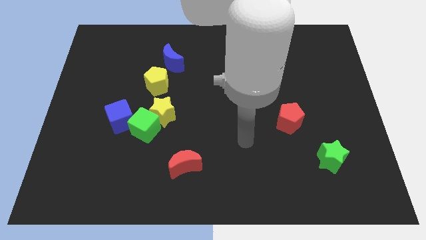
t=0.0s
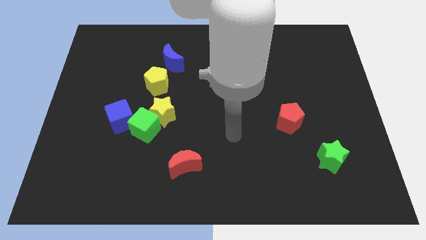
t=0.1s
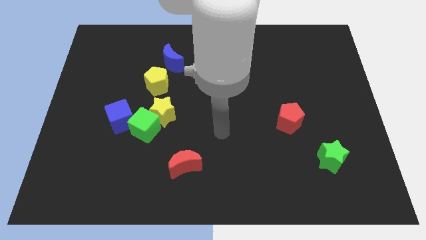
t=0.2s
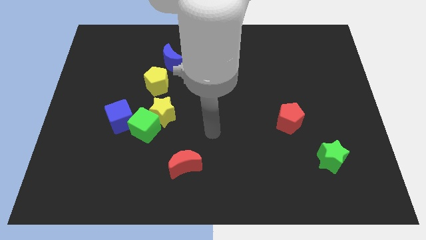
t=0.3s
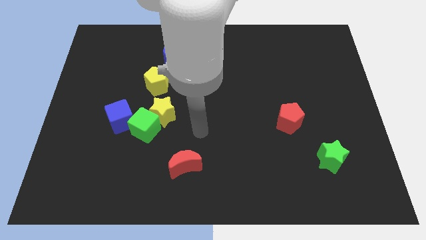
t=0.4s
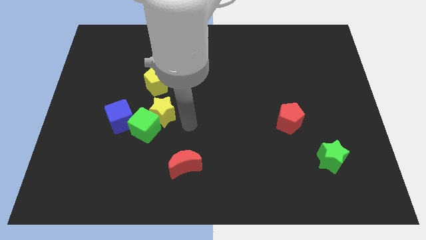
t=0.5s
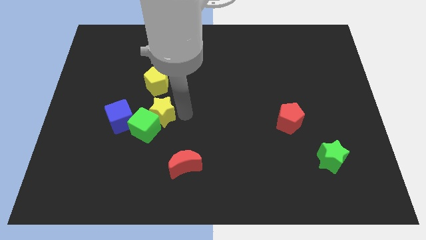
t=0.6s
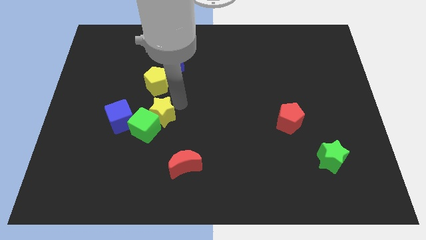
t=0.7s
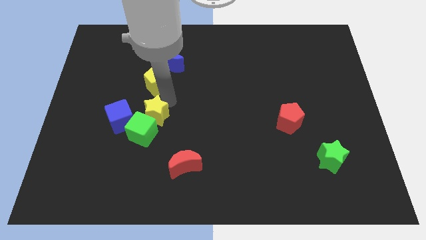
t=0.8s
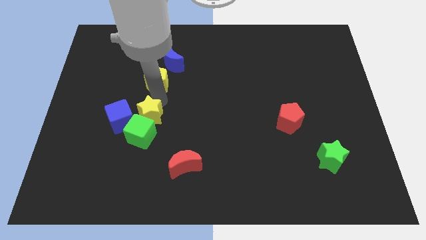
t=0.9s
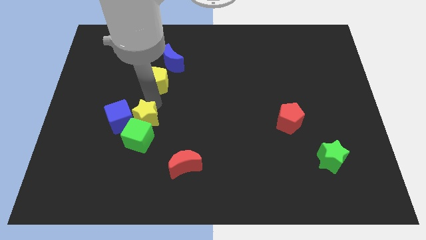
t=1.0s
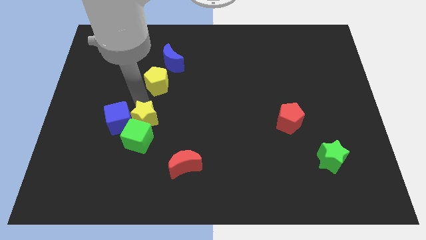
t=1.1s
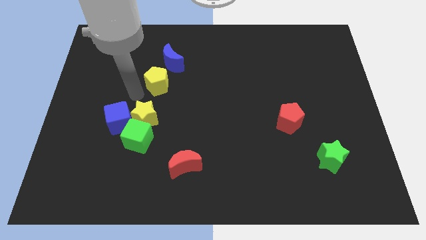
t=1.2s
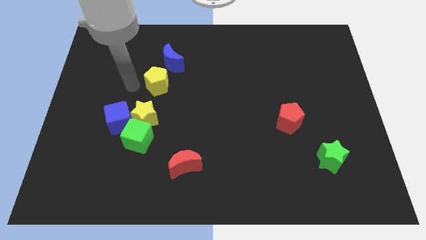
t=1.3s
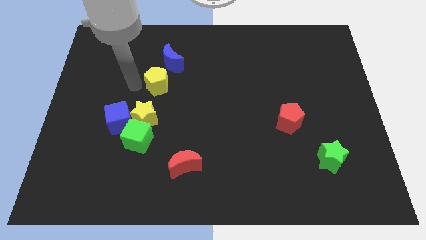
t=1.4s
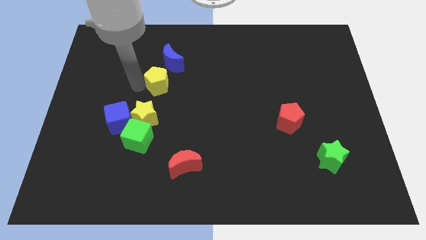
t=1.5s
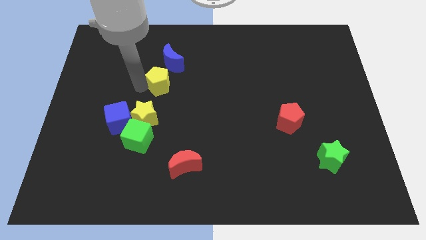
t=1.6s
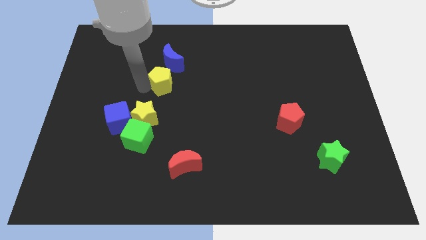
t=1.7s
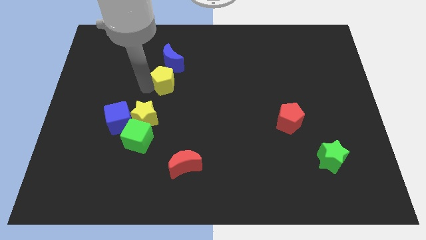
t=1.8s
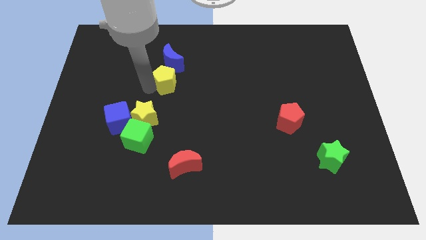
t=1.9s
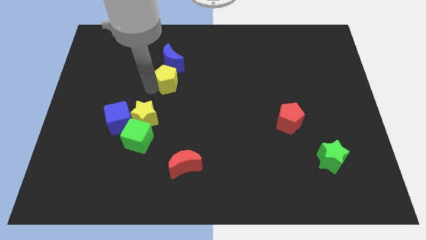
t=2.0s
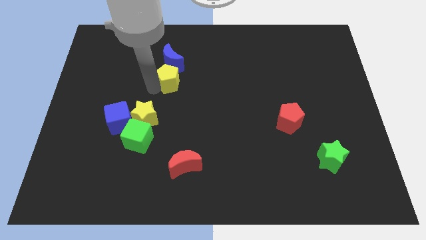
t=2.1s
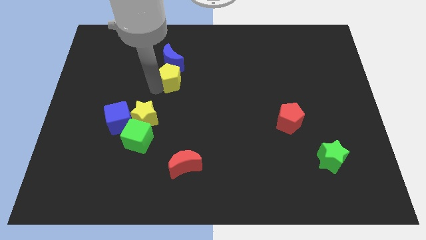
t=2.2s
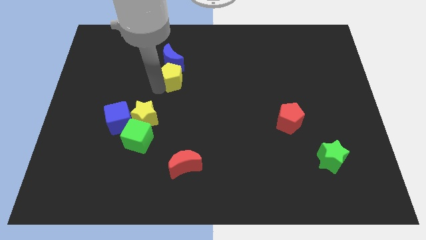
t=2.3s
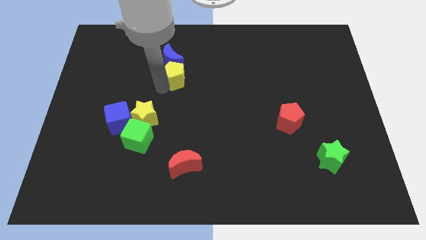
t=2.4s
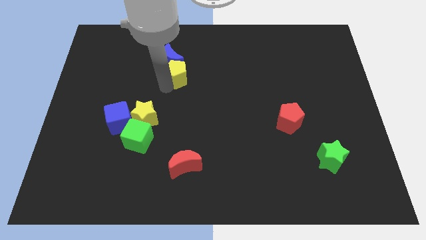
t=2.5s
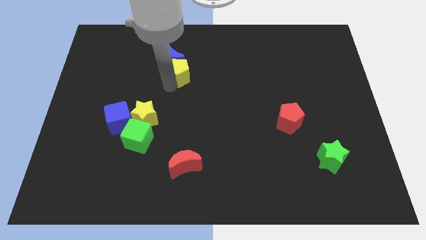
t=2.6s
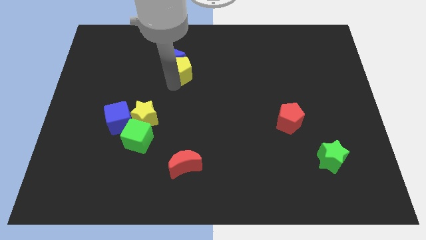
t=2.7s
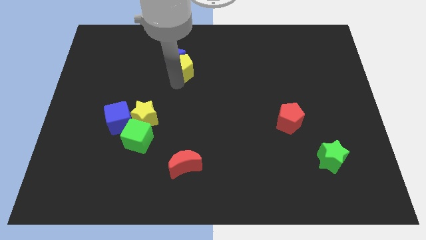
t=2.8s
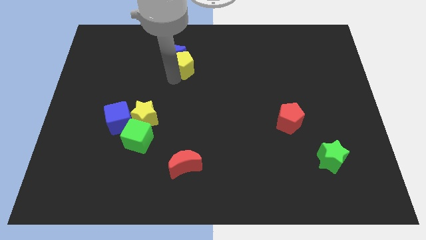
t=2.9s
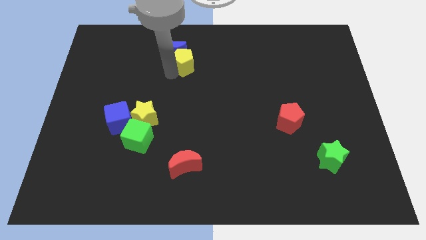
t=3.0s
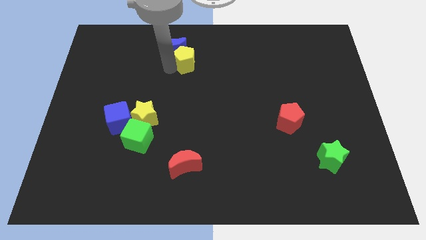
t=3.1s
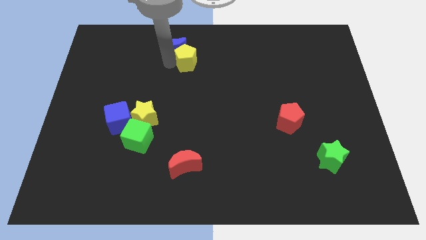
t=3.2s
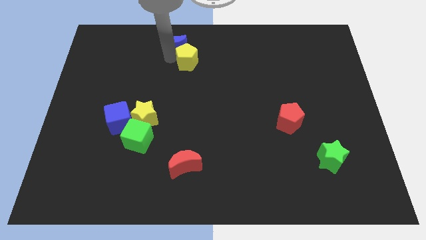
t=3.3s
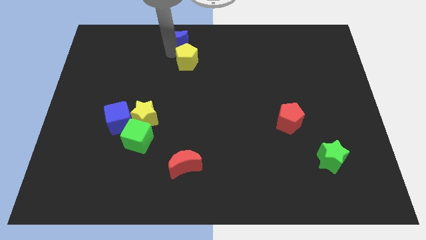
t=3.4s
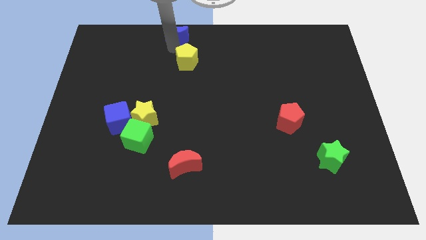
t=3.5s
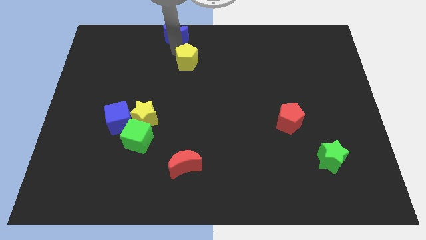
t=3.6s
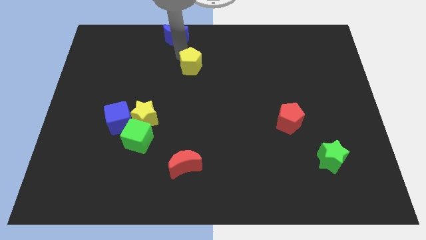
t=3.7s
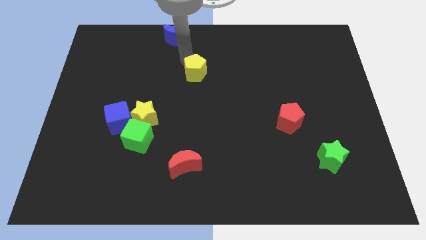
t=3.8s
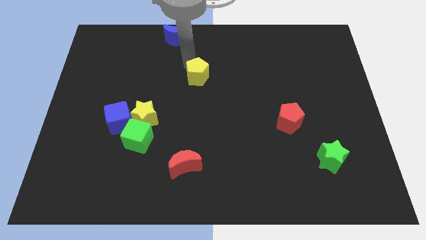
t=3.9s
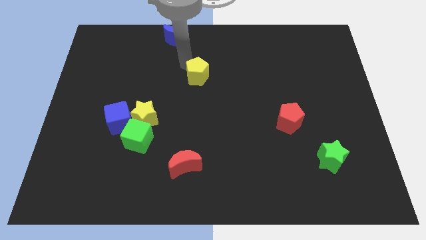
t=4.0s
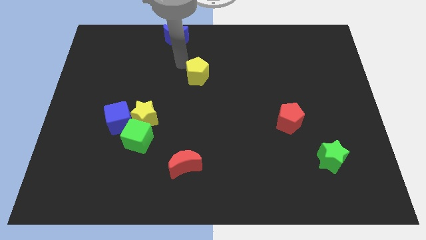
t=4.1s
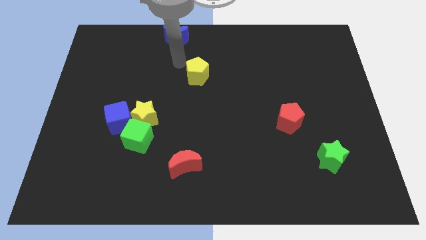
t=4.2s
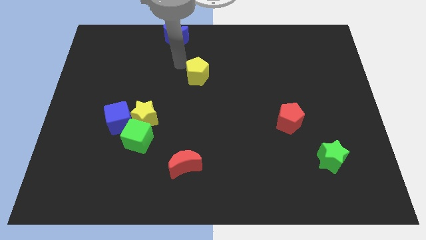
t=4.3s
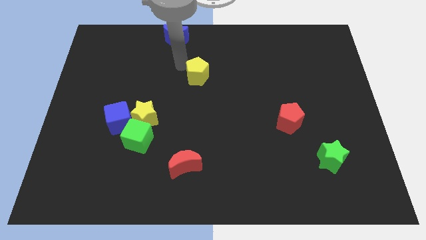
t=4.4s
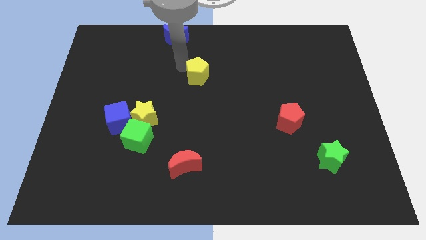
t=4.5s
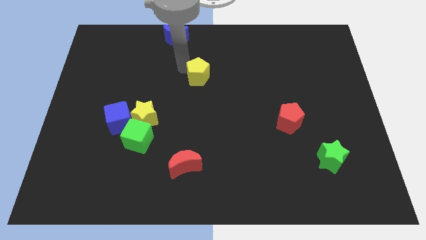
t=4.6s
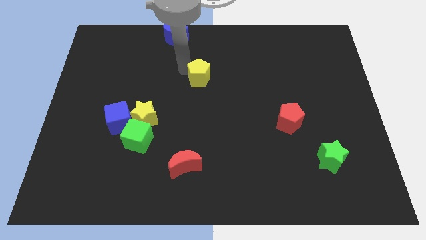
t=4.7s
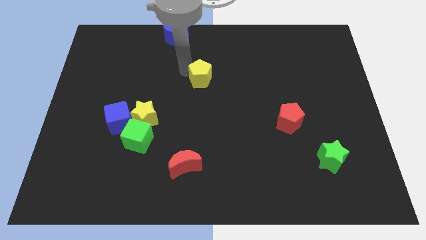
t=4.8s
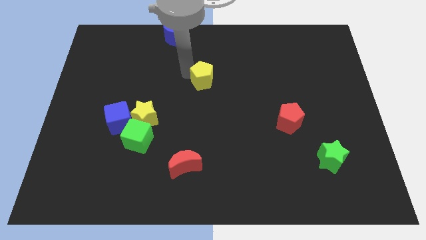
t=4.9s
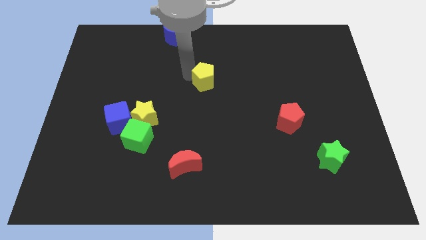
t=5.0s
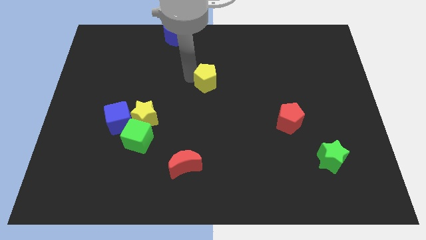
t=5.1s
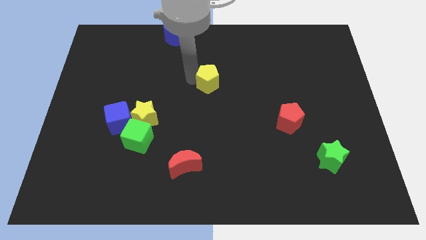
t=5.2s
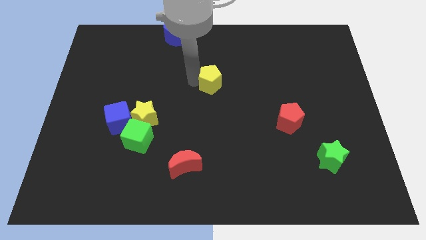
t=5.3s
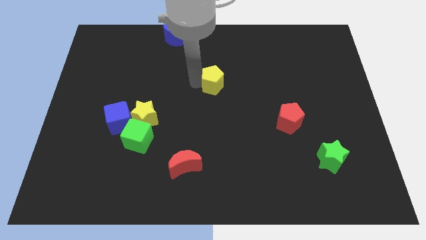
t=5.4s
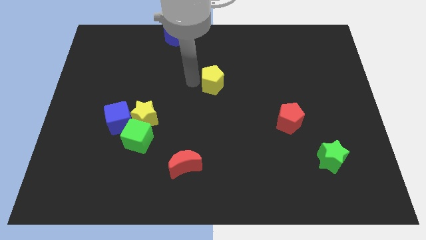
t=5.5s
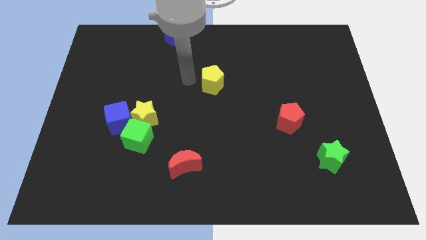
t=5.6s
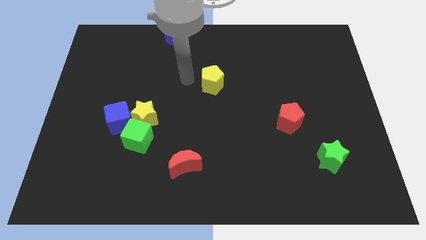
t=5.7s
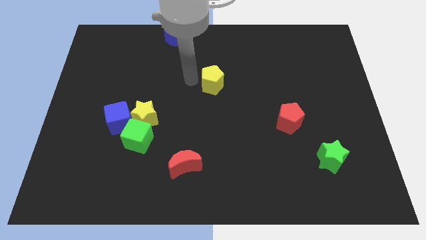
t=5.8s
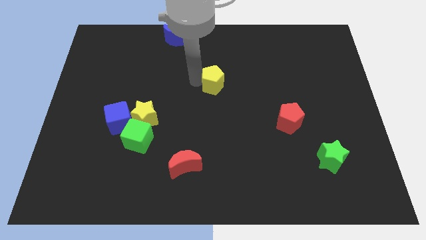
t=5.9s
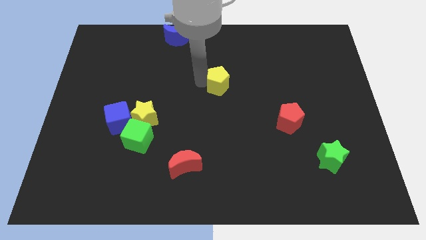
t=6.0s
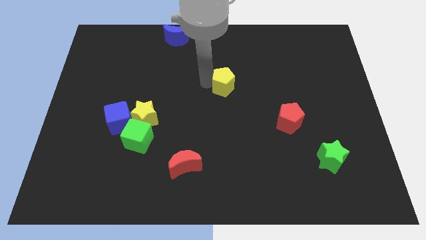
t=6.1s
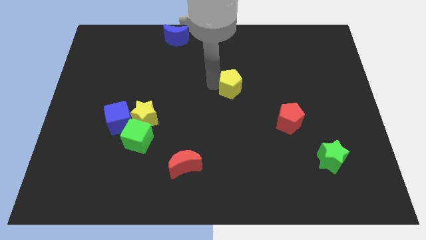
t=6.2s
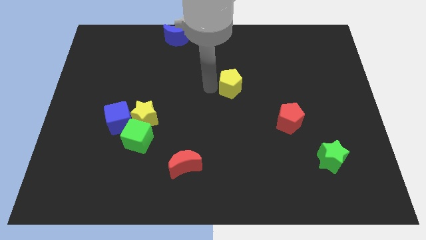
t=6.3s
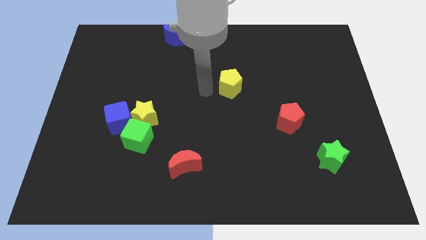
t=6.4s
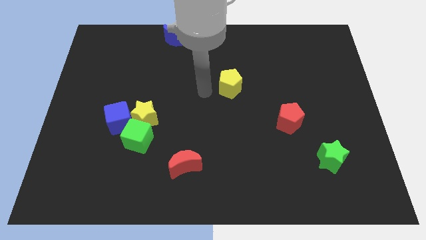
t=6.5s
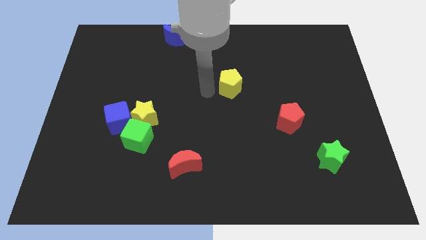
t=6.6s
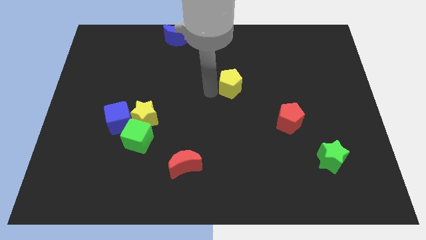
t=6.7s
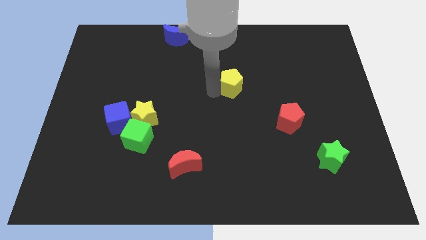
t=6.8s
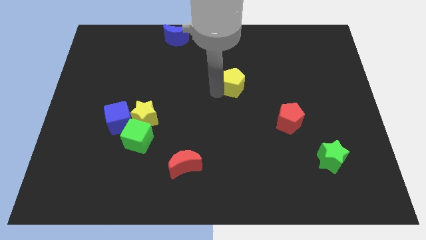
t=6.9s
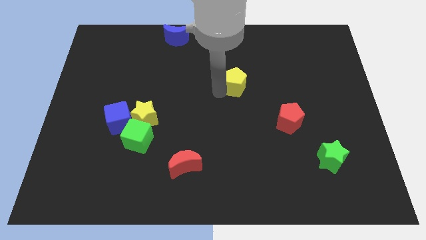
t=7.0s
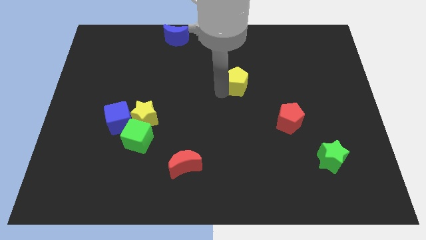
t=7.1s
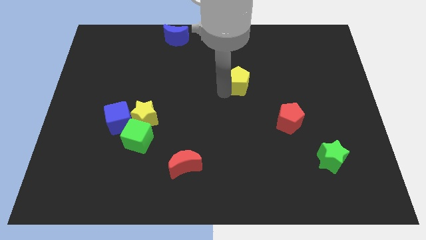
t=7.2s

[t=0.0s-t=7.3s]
slide the yellow pentagon to the right

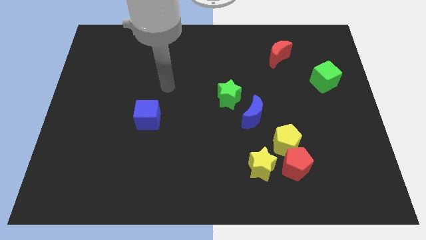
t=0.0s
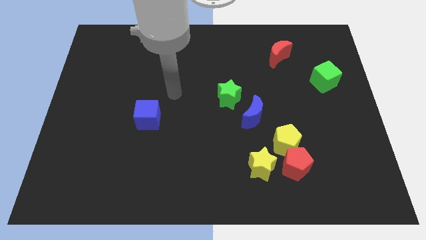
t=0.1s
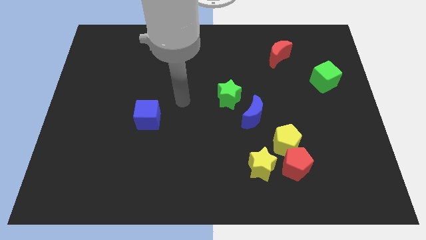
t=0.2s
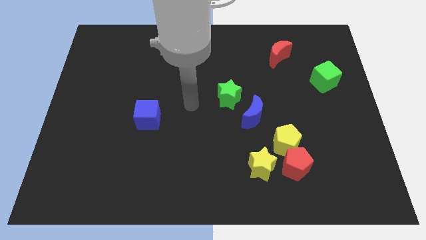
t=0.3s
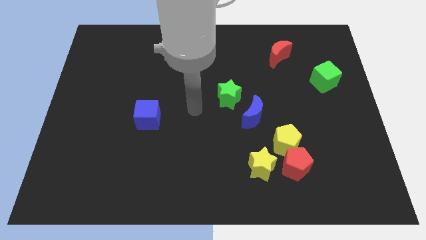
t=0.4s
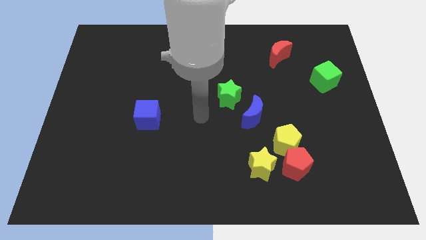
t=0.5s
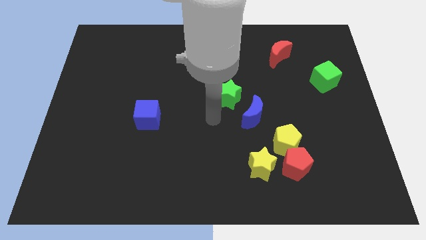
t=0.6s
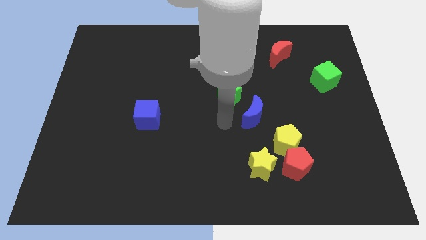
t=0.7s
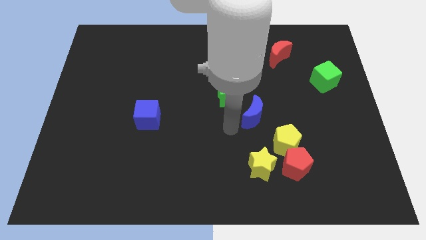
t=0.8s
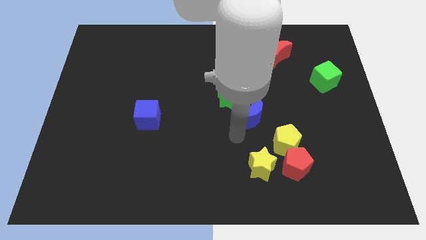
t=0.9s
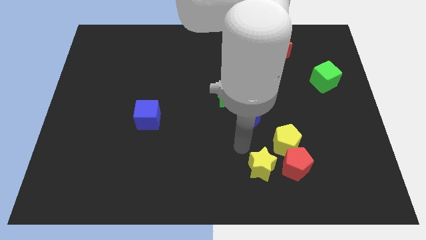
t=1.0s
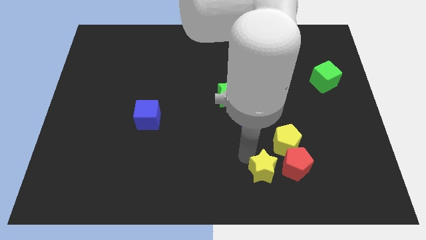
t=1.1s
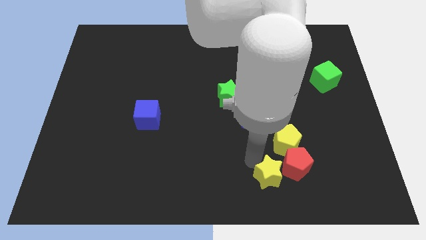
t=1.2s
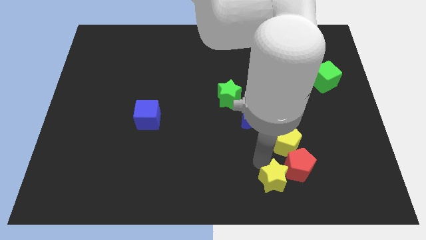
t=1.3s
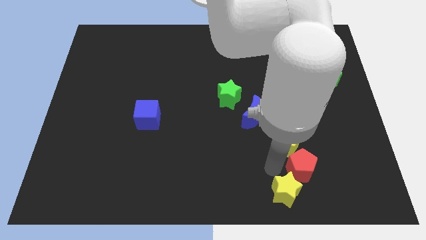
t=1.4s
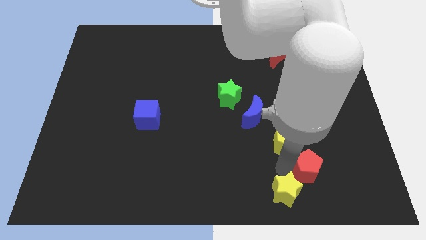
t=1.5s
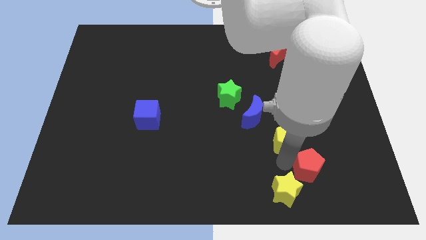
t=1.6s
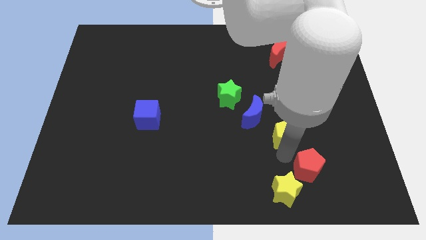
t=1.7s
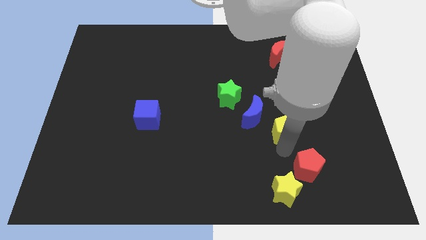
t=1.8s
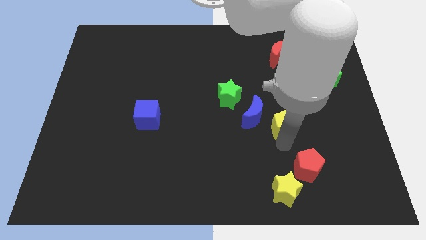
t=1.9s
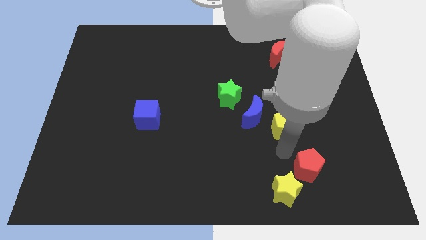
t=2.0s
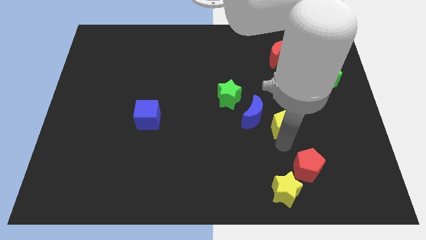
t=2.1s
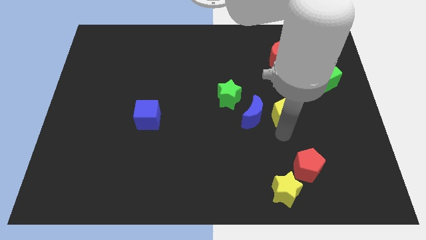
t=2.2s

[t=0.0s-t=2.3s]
push the yellow pentagon upwards a bit
